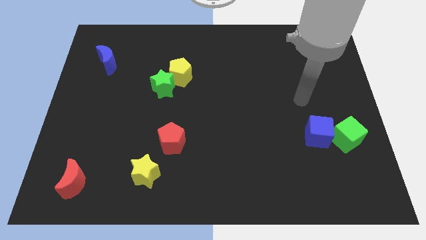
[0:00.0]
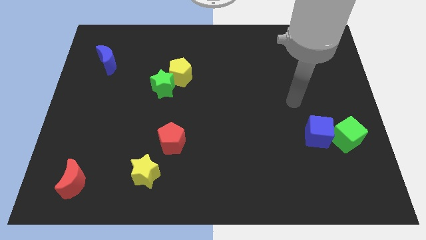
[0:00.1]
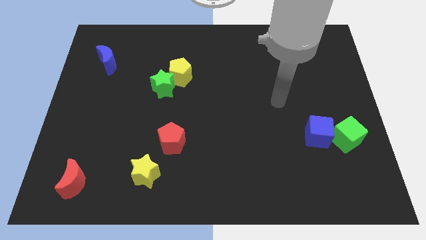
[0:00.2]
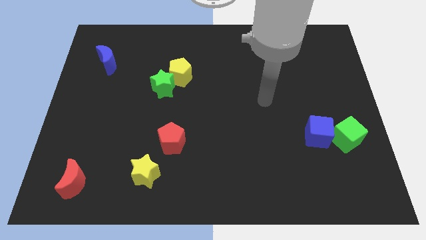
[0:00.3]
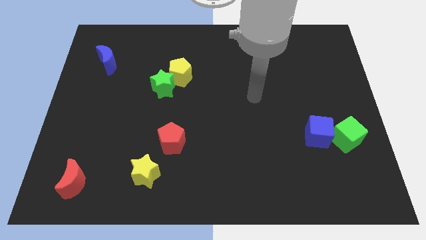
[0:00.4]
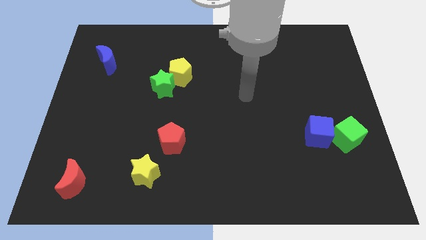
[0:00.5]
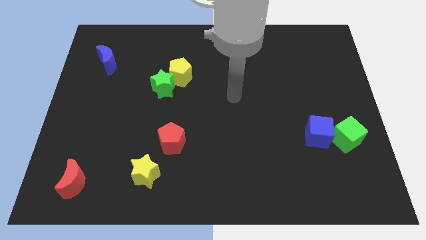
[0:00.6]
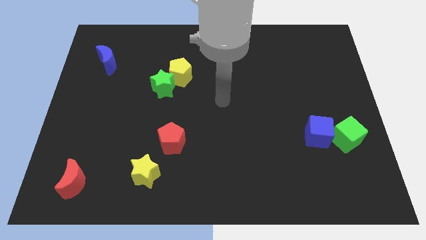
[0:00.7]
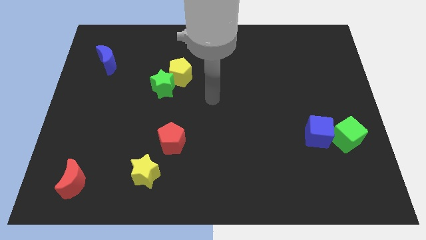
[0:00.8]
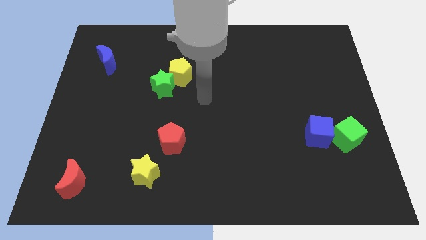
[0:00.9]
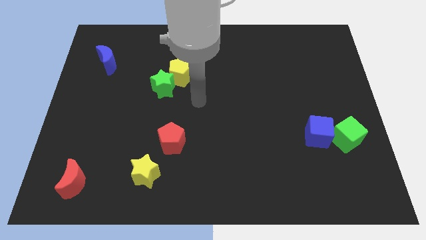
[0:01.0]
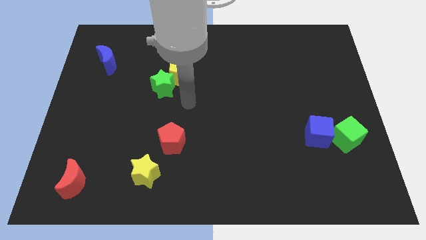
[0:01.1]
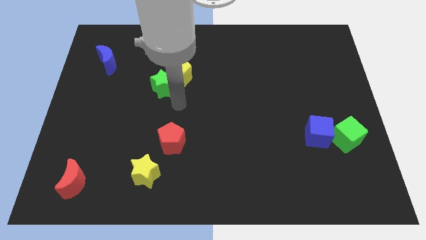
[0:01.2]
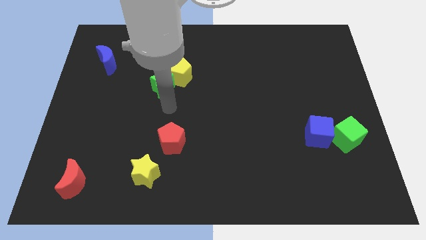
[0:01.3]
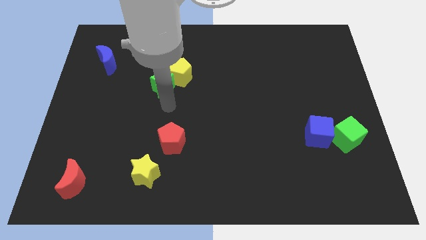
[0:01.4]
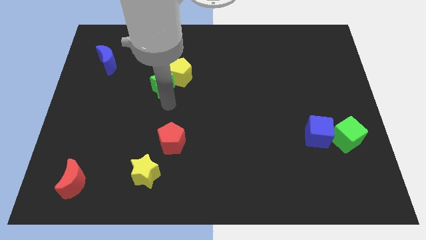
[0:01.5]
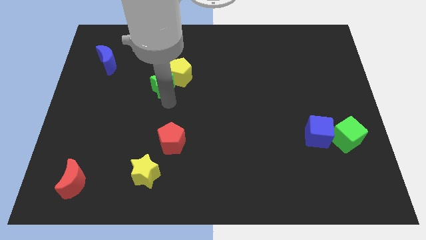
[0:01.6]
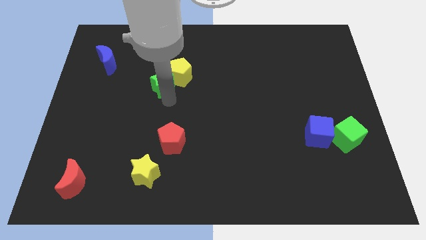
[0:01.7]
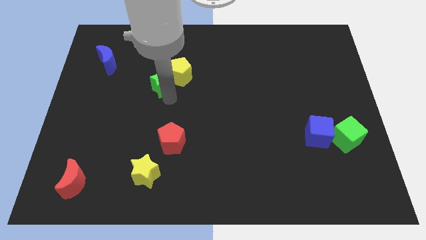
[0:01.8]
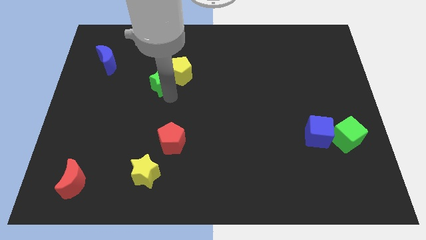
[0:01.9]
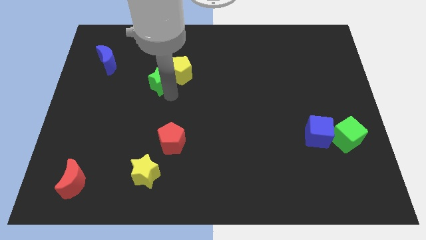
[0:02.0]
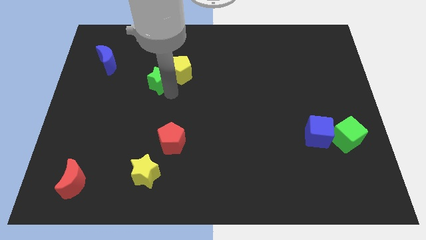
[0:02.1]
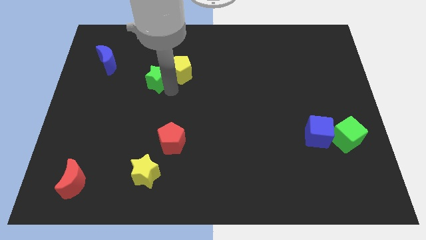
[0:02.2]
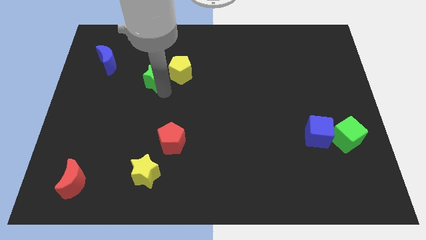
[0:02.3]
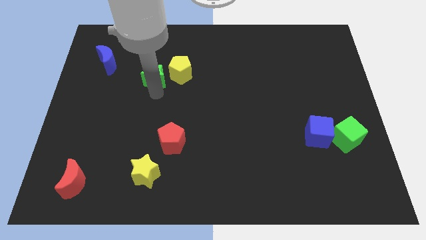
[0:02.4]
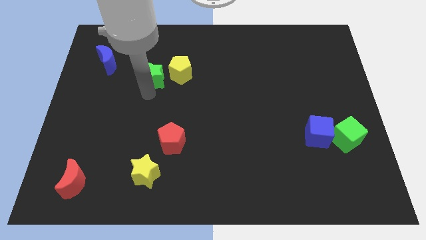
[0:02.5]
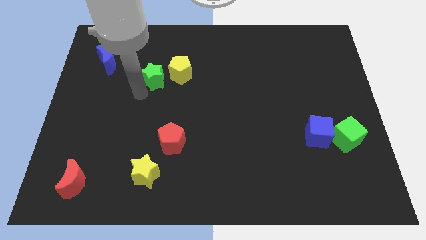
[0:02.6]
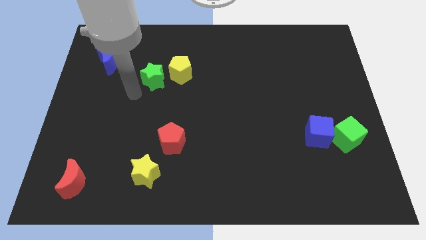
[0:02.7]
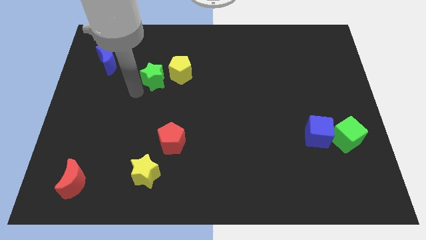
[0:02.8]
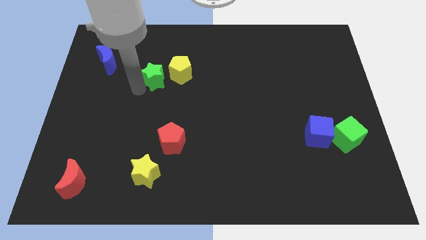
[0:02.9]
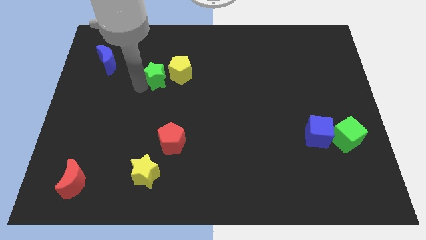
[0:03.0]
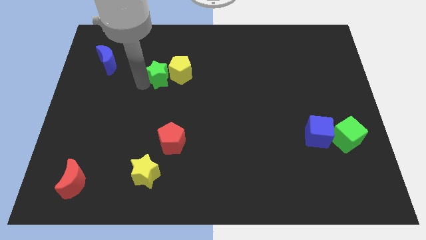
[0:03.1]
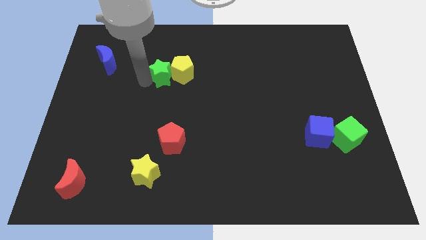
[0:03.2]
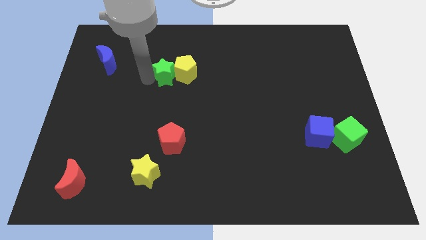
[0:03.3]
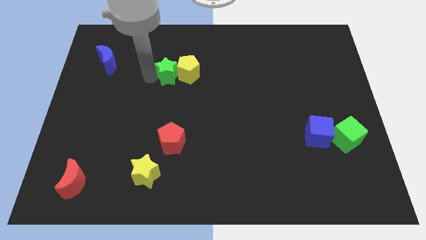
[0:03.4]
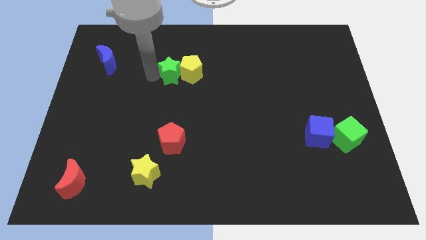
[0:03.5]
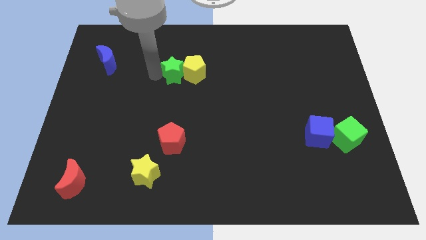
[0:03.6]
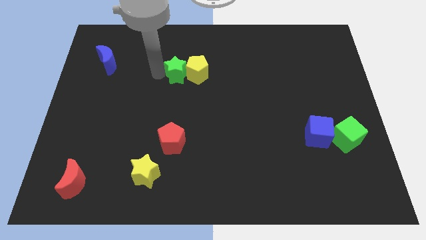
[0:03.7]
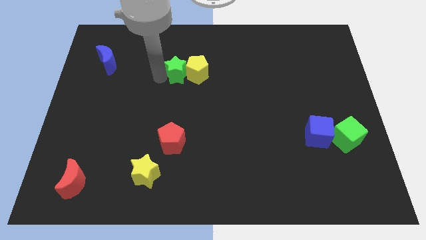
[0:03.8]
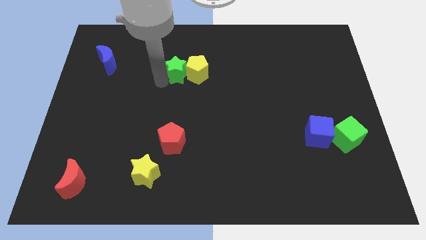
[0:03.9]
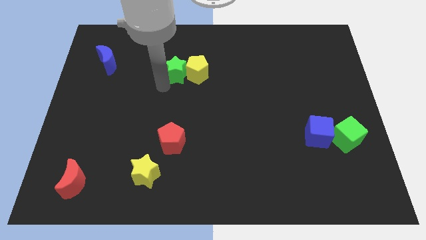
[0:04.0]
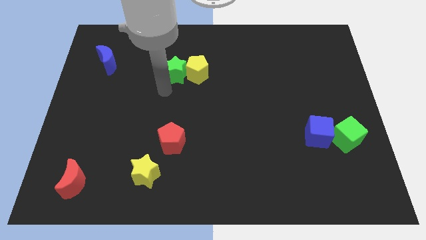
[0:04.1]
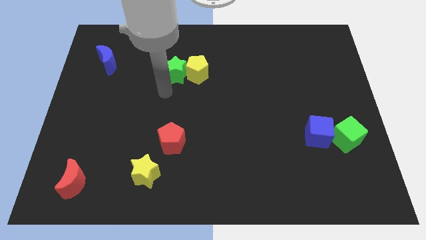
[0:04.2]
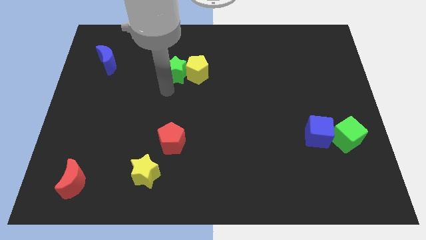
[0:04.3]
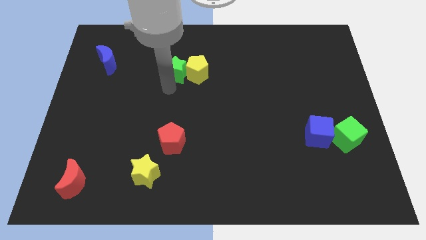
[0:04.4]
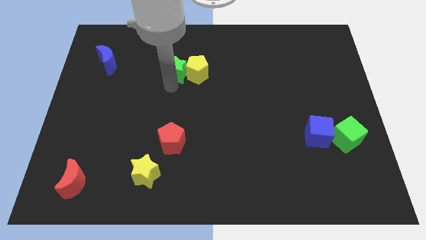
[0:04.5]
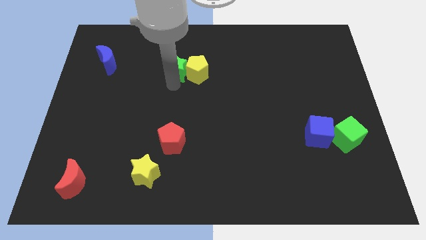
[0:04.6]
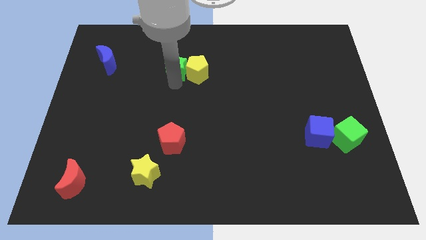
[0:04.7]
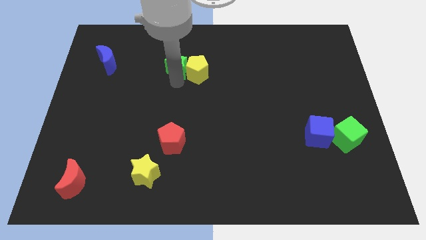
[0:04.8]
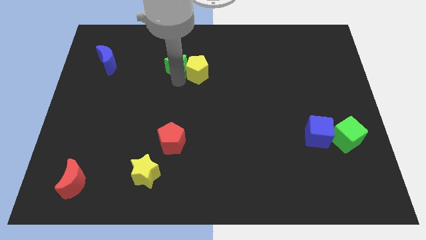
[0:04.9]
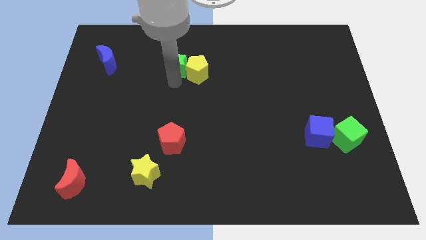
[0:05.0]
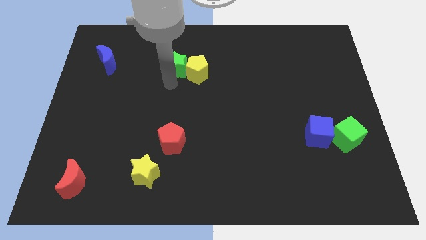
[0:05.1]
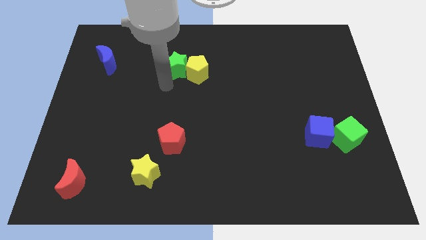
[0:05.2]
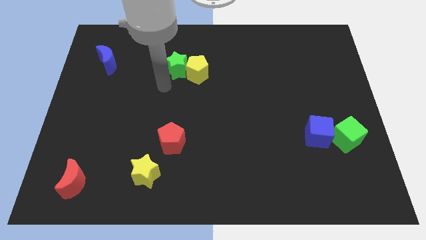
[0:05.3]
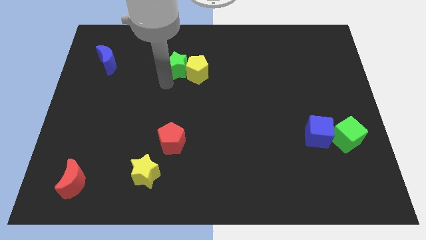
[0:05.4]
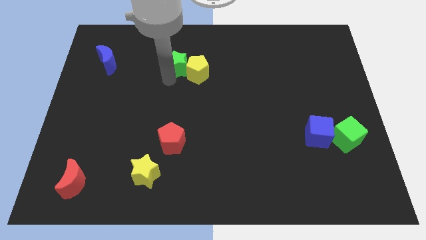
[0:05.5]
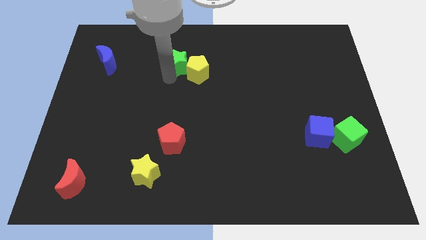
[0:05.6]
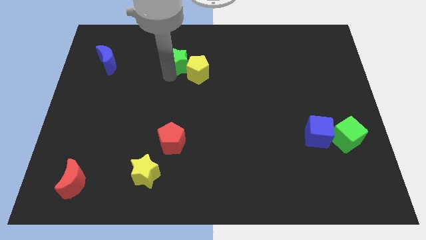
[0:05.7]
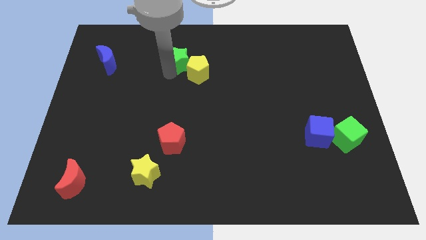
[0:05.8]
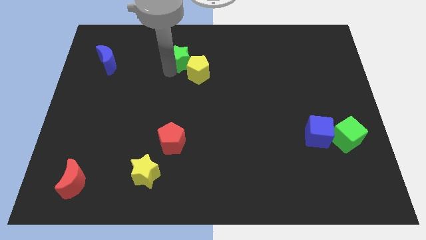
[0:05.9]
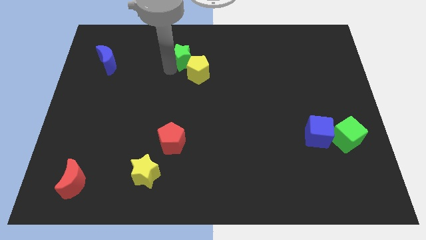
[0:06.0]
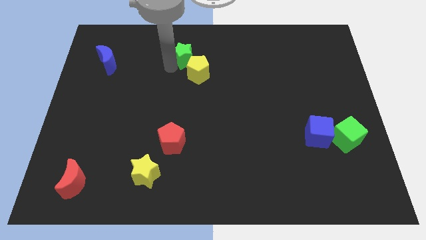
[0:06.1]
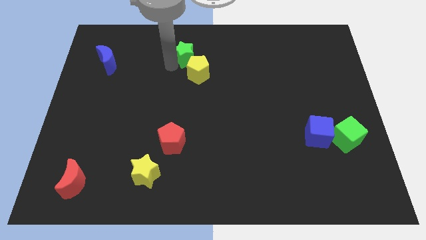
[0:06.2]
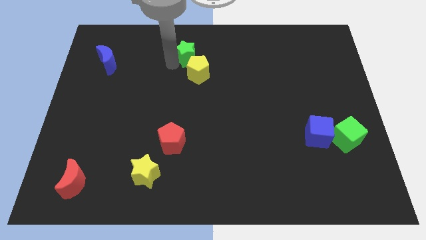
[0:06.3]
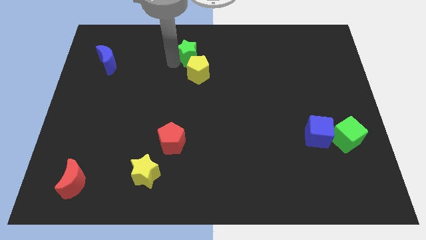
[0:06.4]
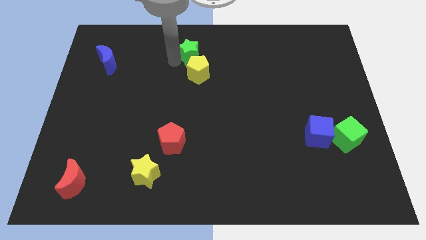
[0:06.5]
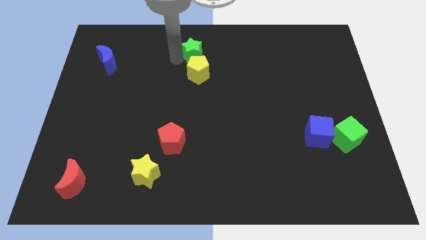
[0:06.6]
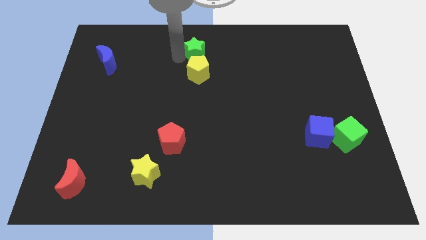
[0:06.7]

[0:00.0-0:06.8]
push the green star to the top side

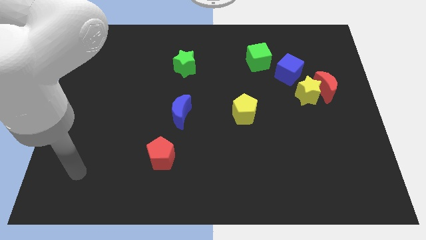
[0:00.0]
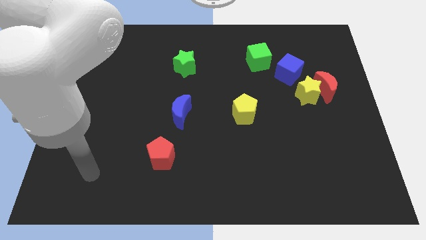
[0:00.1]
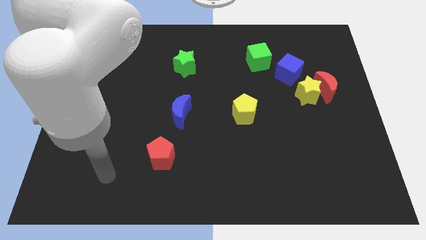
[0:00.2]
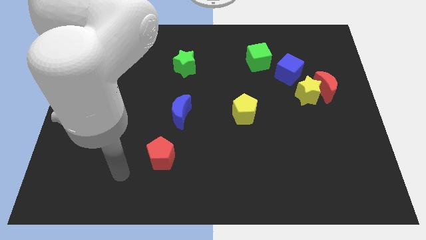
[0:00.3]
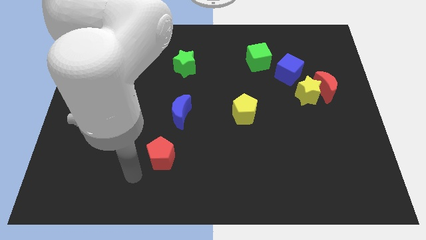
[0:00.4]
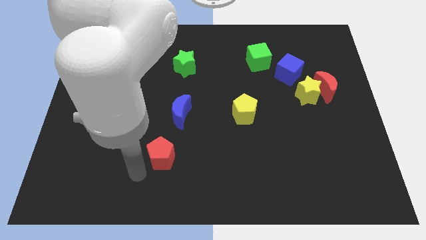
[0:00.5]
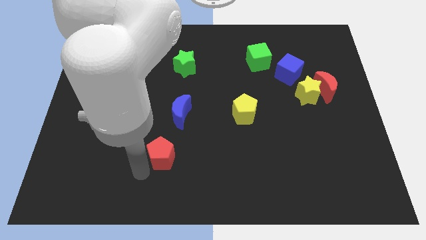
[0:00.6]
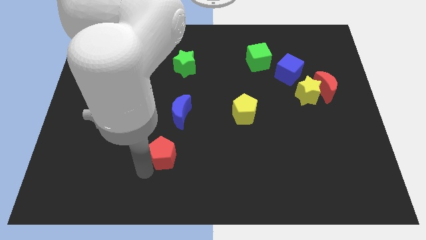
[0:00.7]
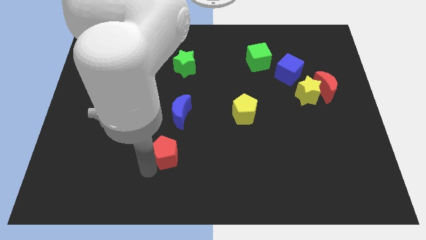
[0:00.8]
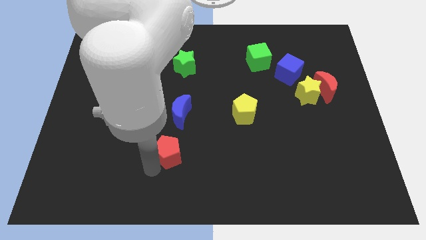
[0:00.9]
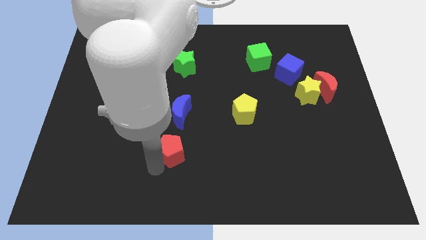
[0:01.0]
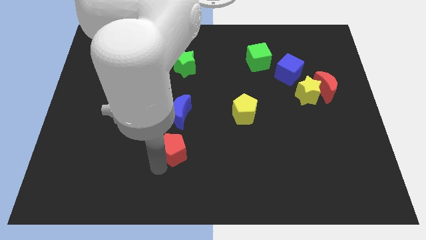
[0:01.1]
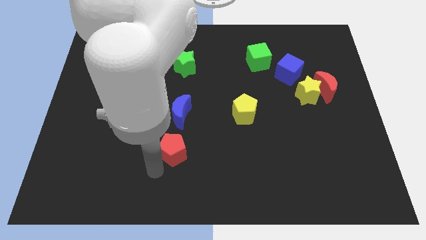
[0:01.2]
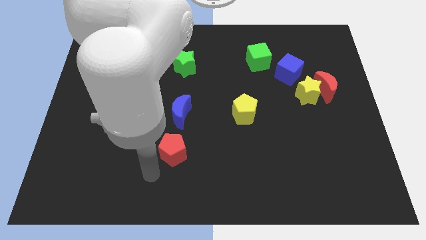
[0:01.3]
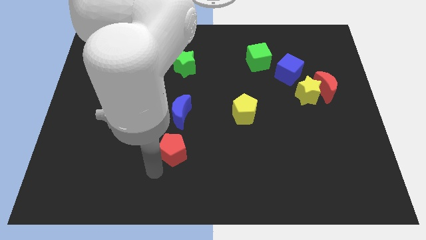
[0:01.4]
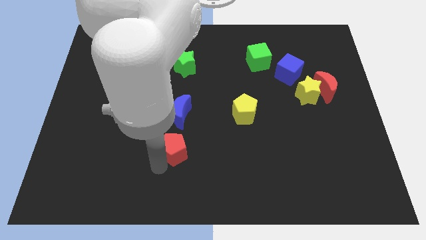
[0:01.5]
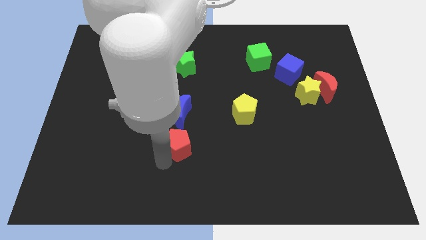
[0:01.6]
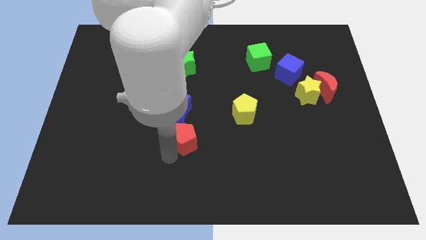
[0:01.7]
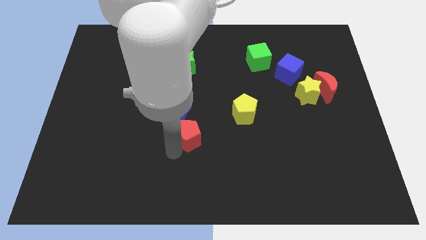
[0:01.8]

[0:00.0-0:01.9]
slide the red pentagon to the center of the board
